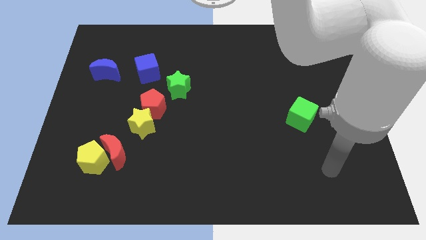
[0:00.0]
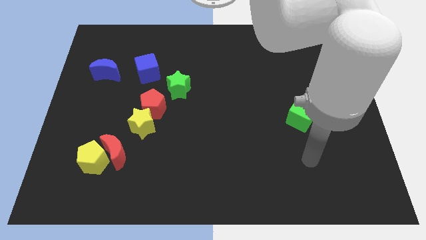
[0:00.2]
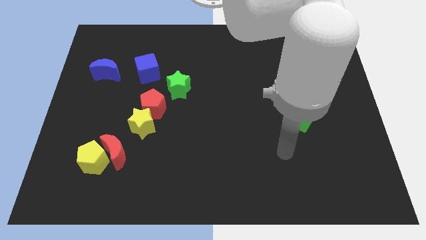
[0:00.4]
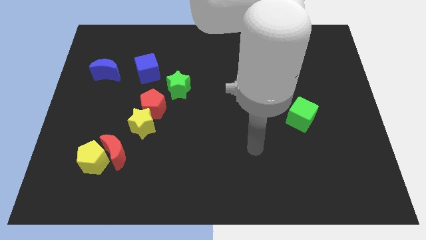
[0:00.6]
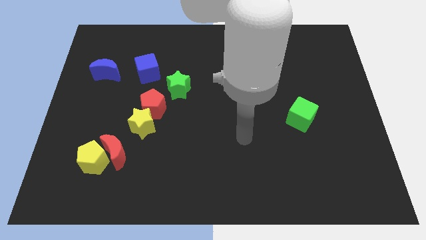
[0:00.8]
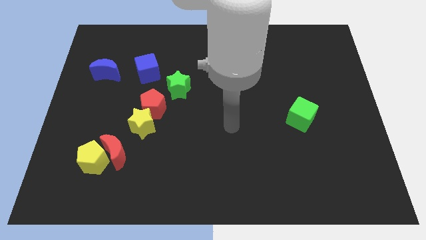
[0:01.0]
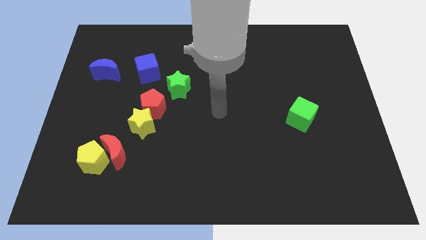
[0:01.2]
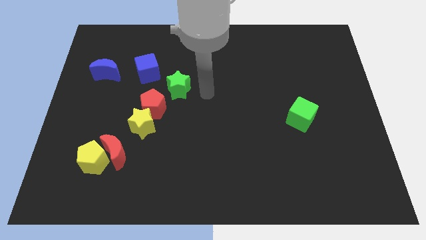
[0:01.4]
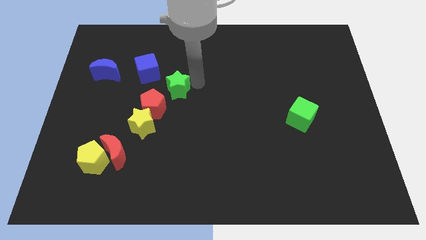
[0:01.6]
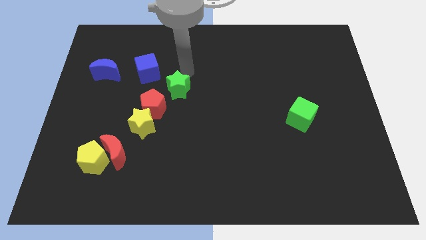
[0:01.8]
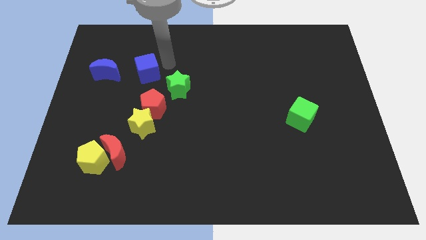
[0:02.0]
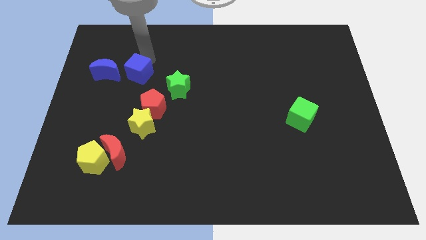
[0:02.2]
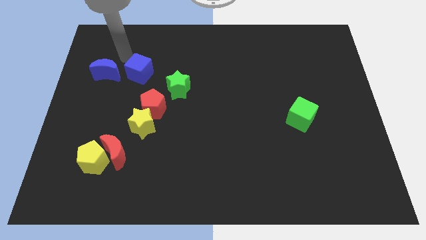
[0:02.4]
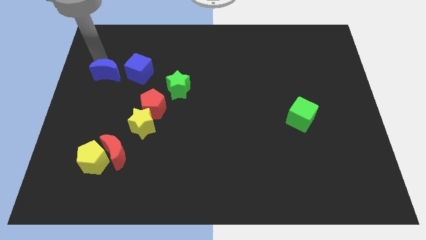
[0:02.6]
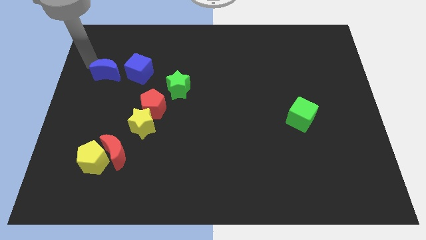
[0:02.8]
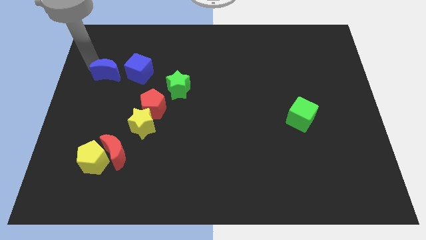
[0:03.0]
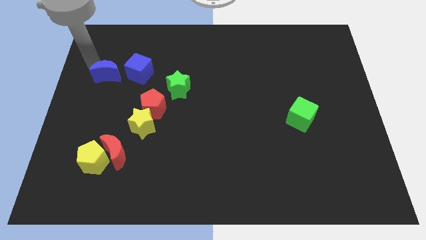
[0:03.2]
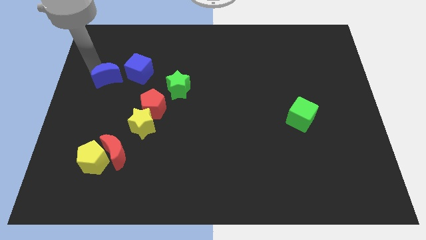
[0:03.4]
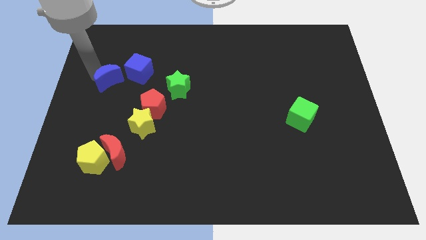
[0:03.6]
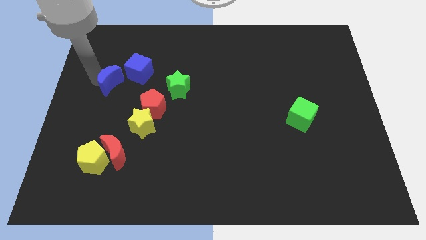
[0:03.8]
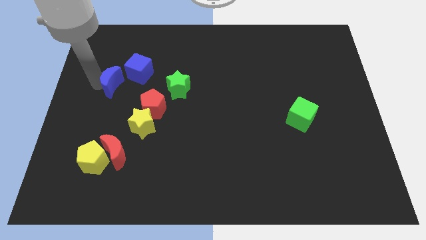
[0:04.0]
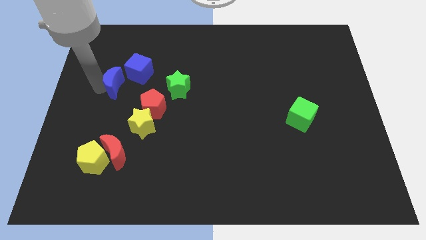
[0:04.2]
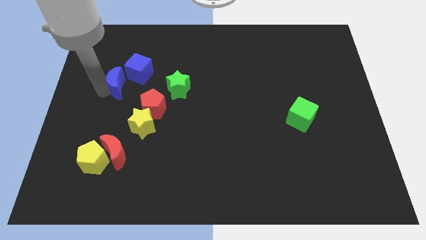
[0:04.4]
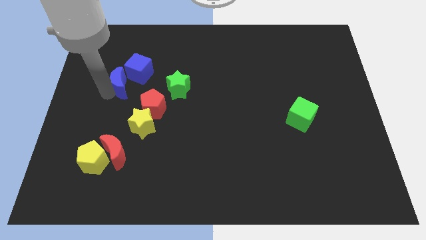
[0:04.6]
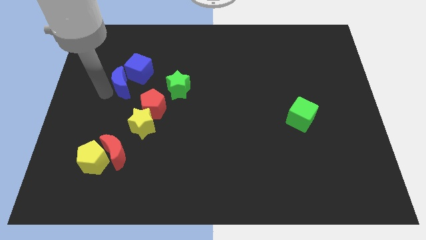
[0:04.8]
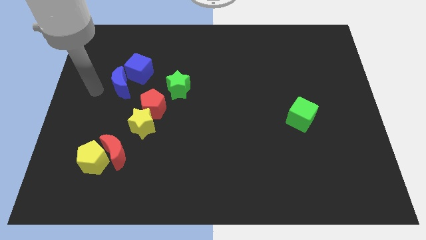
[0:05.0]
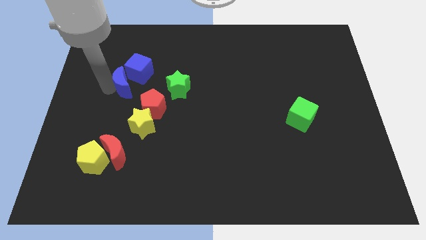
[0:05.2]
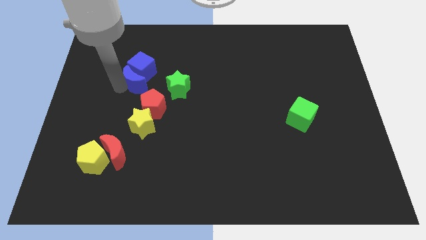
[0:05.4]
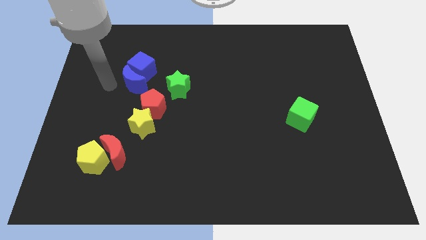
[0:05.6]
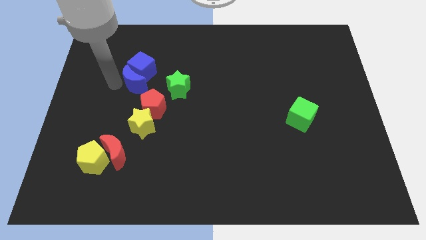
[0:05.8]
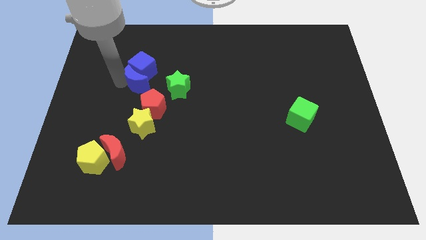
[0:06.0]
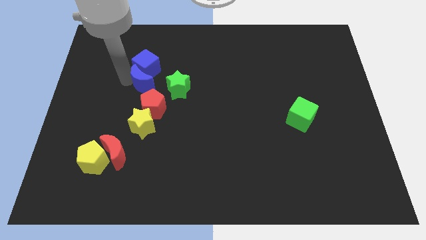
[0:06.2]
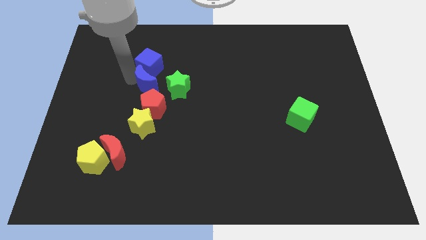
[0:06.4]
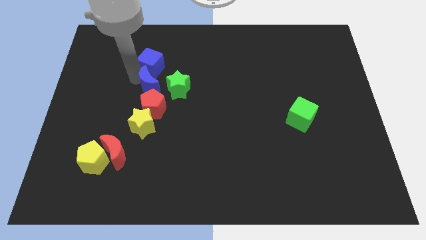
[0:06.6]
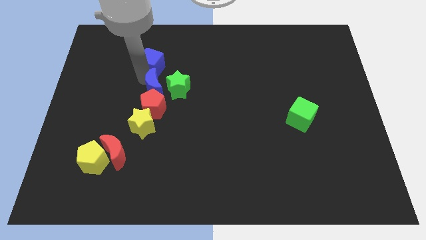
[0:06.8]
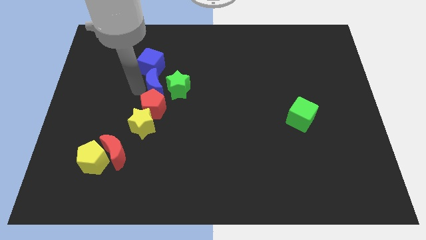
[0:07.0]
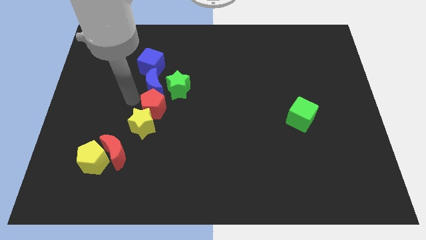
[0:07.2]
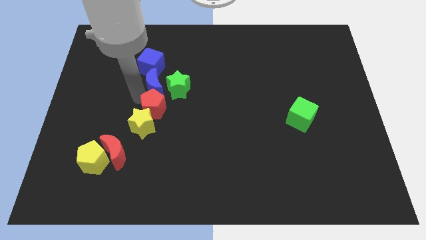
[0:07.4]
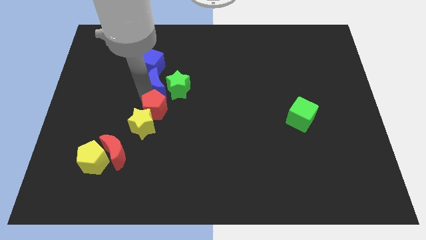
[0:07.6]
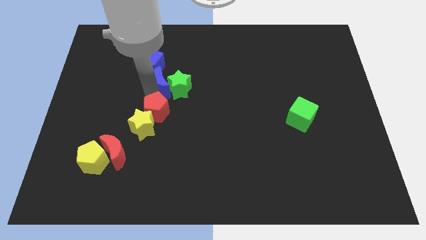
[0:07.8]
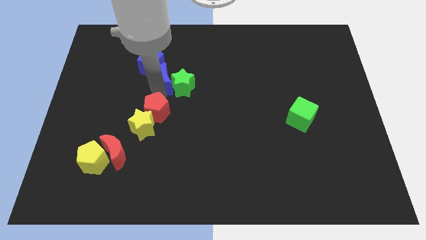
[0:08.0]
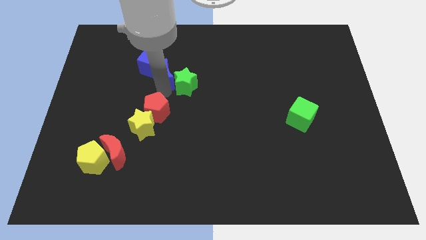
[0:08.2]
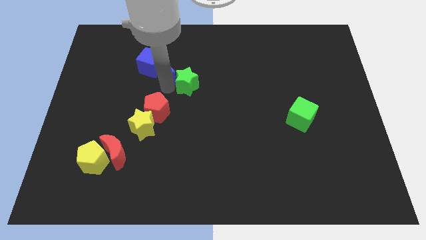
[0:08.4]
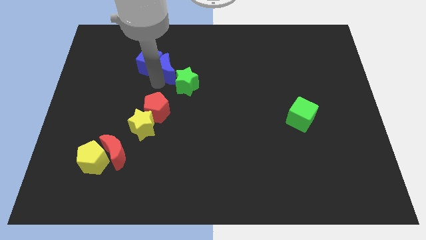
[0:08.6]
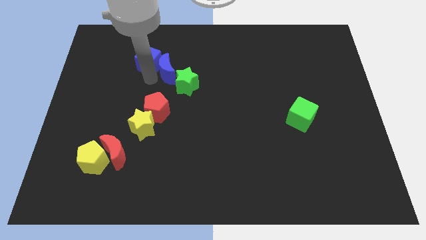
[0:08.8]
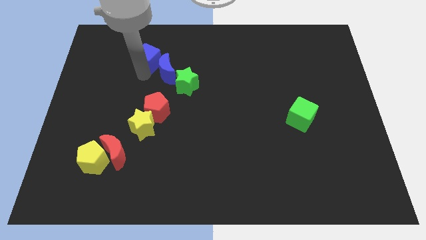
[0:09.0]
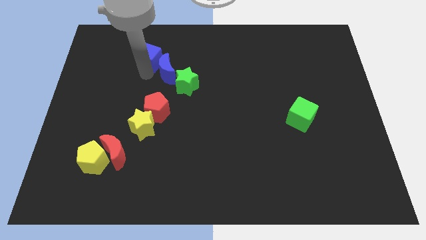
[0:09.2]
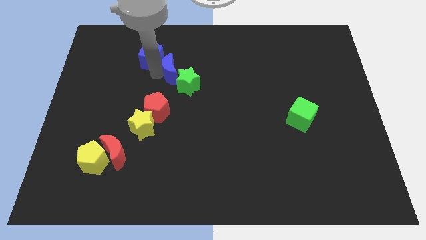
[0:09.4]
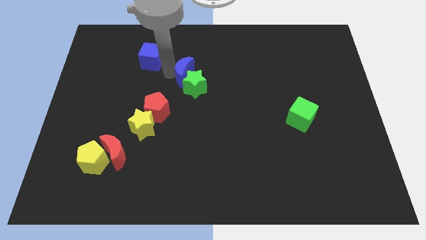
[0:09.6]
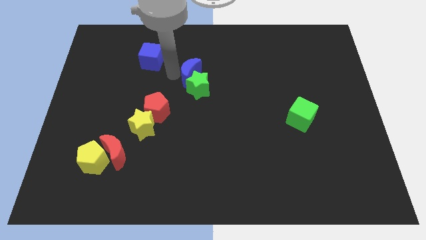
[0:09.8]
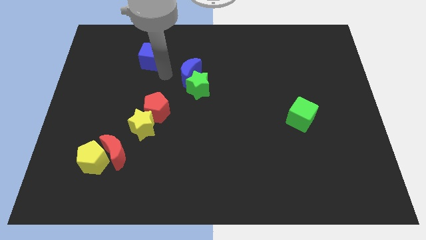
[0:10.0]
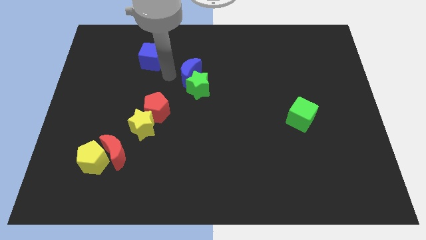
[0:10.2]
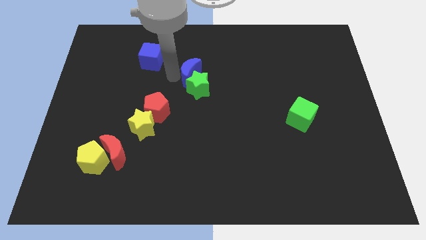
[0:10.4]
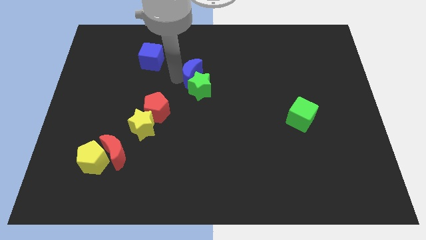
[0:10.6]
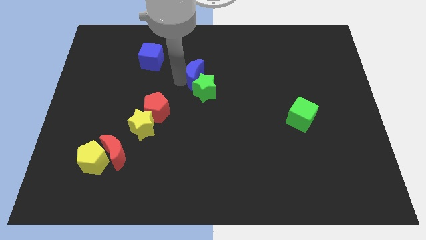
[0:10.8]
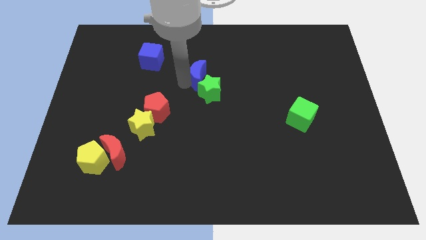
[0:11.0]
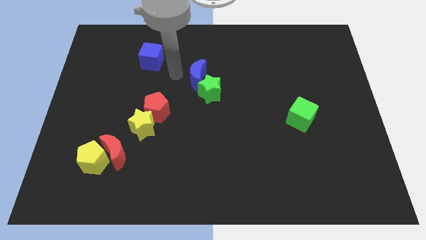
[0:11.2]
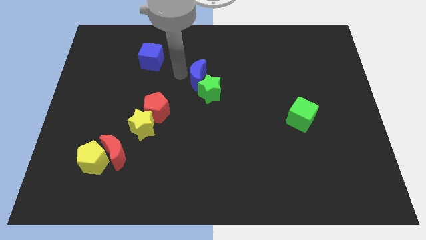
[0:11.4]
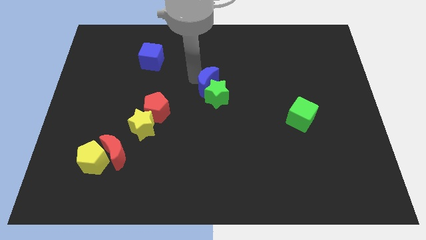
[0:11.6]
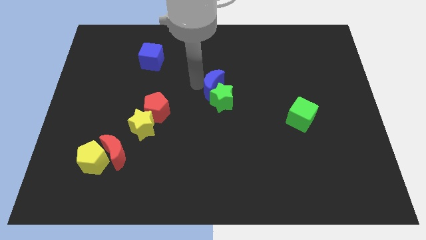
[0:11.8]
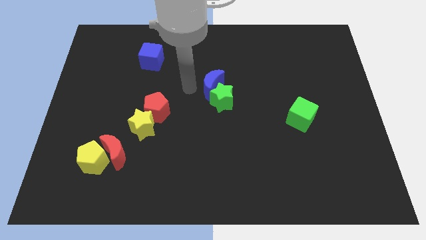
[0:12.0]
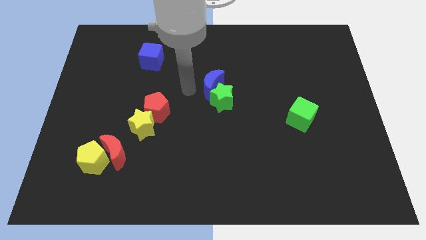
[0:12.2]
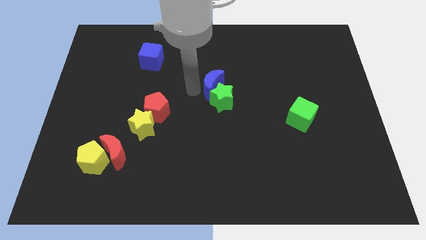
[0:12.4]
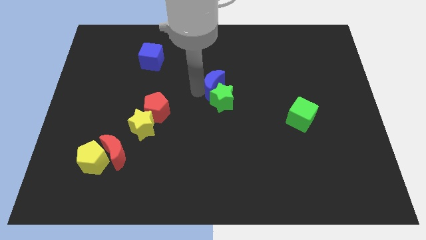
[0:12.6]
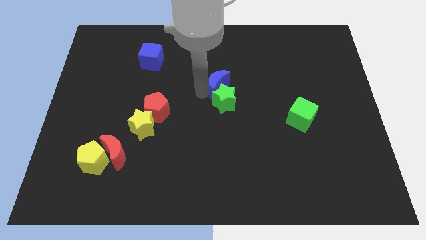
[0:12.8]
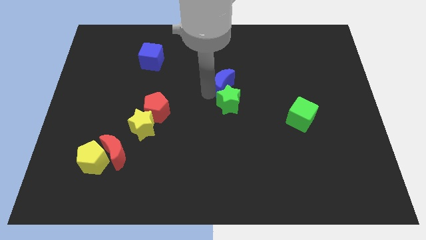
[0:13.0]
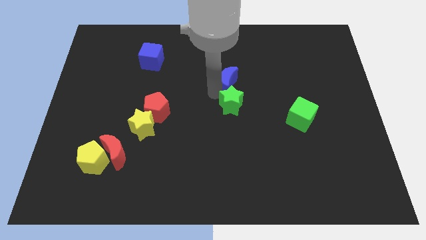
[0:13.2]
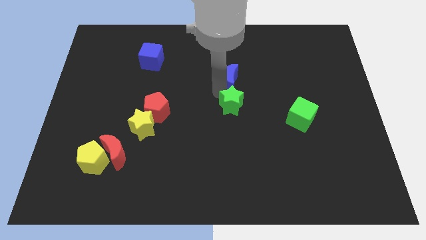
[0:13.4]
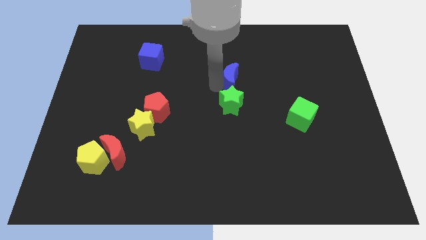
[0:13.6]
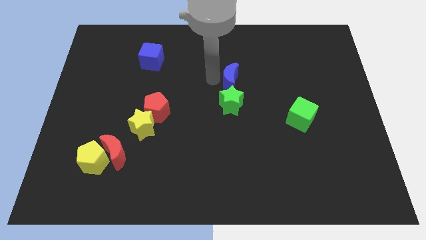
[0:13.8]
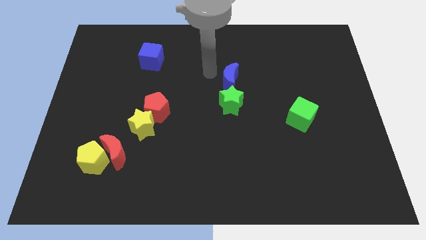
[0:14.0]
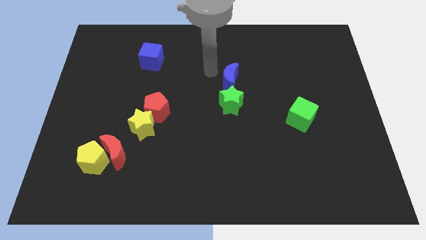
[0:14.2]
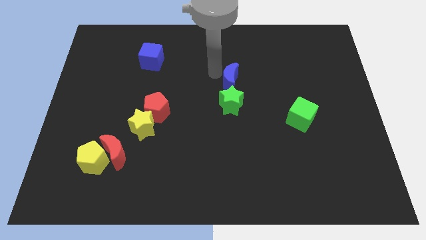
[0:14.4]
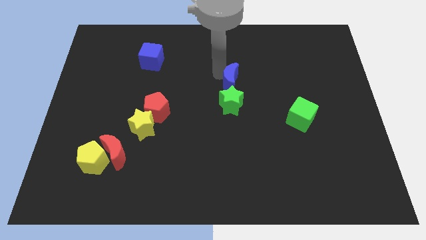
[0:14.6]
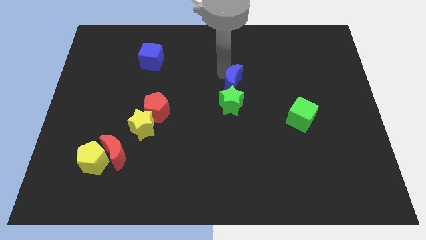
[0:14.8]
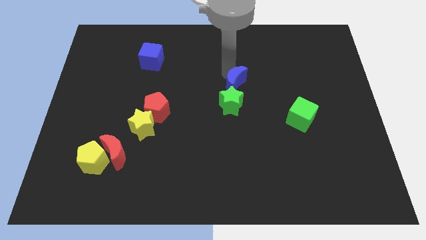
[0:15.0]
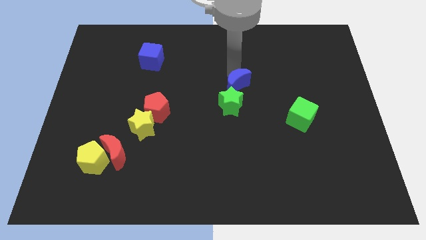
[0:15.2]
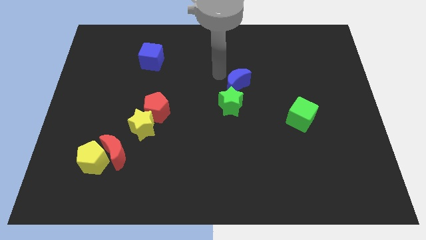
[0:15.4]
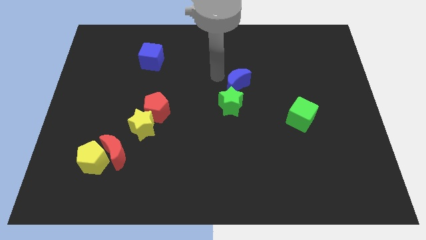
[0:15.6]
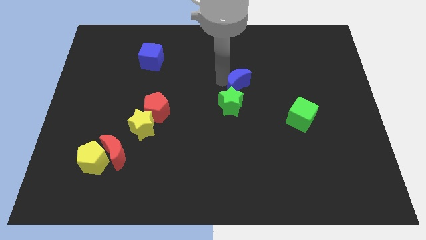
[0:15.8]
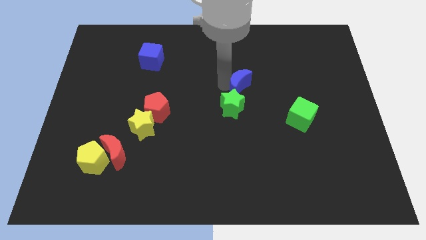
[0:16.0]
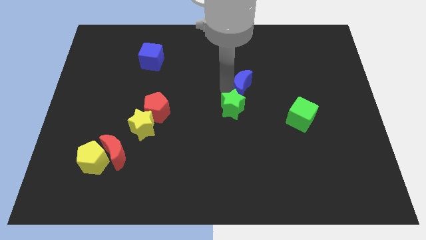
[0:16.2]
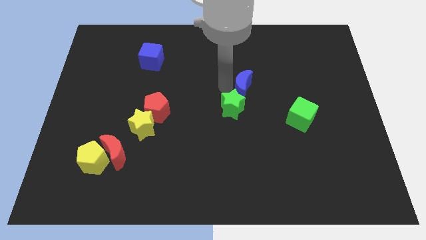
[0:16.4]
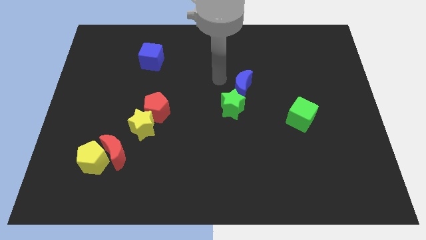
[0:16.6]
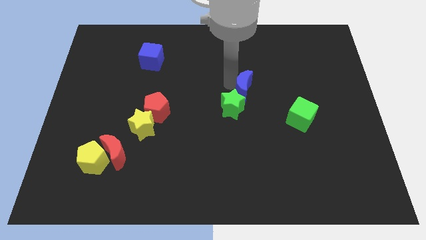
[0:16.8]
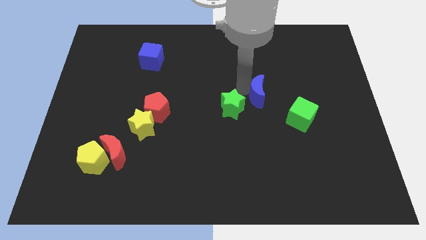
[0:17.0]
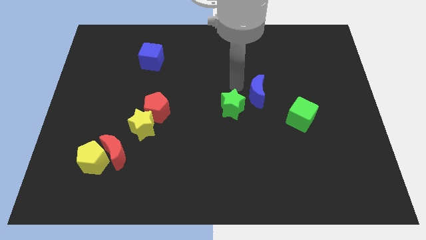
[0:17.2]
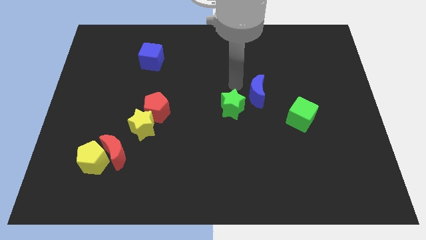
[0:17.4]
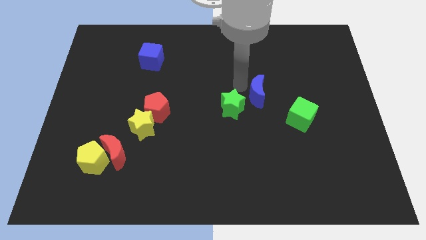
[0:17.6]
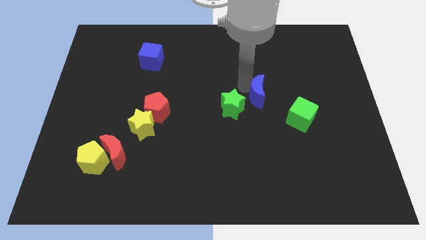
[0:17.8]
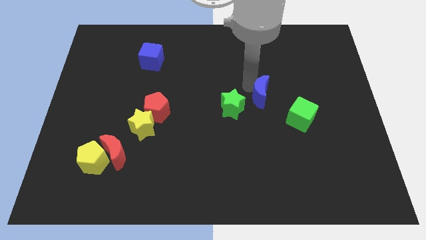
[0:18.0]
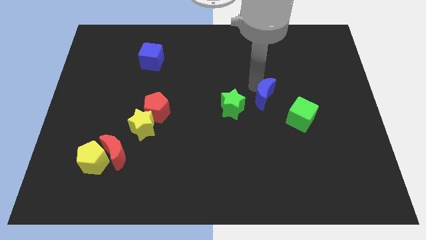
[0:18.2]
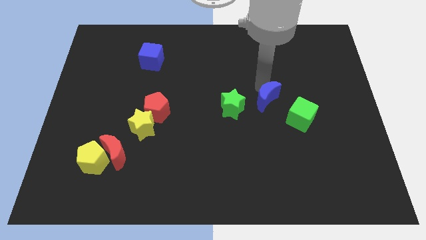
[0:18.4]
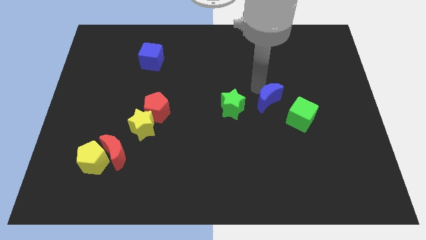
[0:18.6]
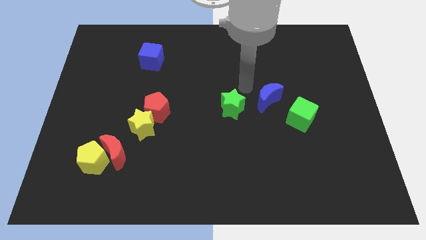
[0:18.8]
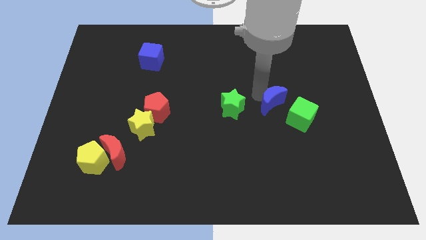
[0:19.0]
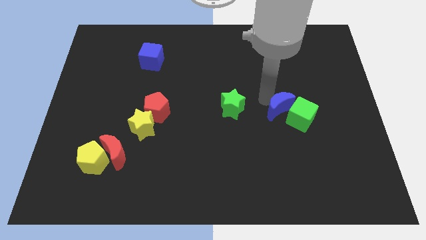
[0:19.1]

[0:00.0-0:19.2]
put the blue moon towards the green cube
